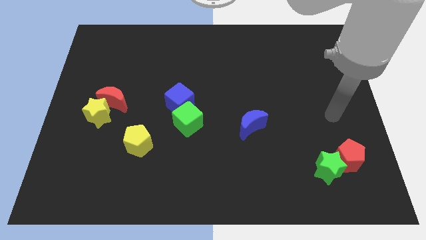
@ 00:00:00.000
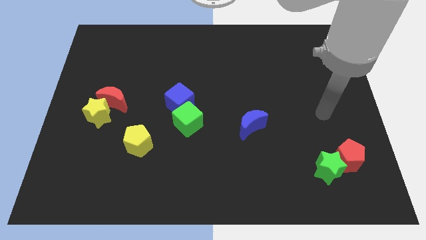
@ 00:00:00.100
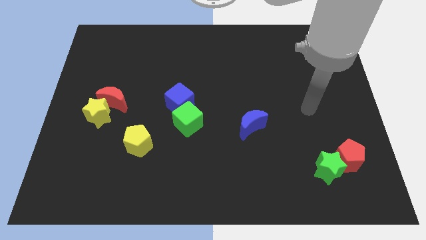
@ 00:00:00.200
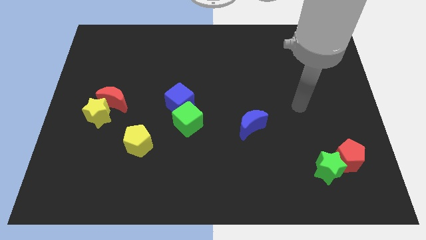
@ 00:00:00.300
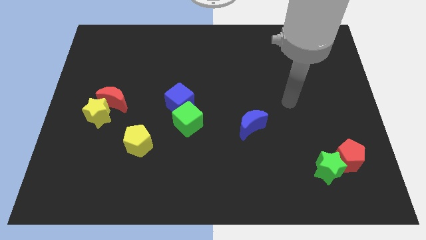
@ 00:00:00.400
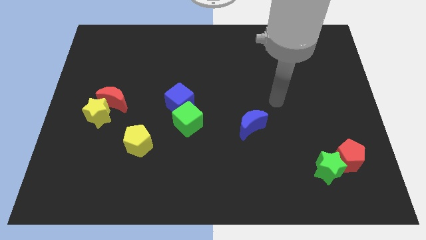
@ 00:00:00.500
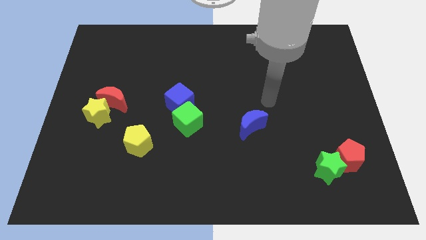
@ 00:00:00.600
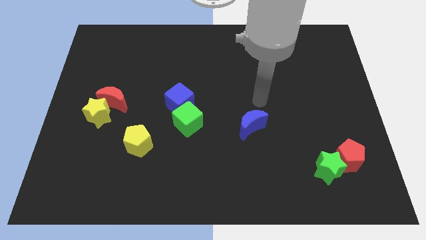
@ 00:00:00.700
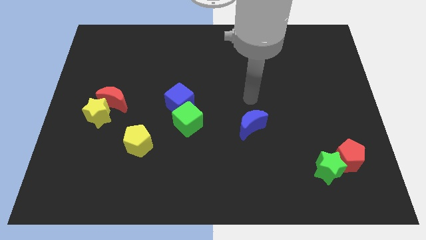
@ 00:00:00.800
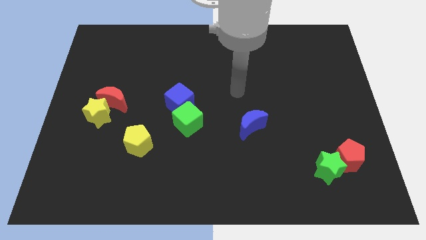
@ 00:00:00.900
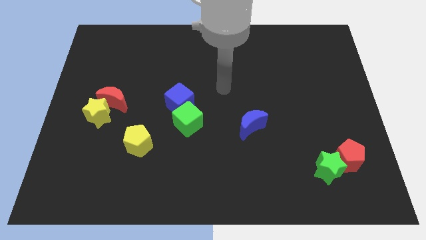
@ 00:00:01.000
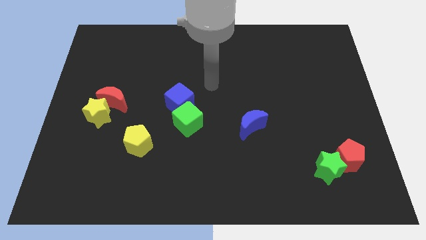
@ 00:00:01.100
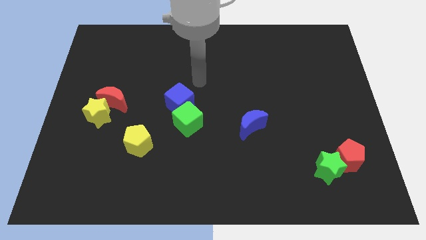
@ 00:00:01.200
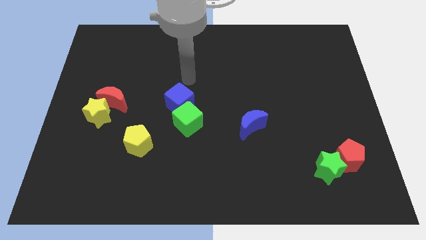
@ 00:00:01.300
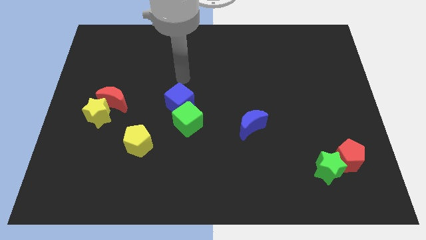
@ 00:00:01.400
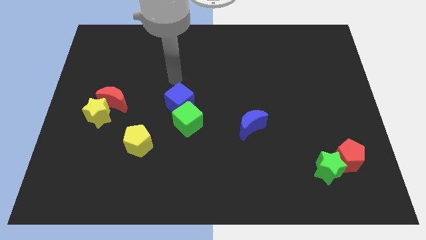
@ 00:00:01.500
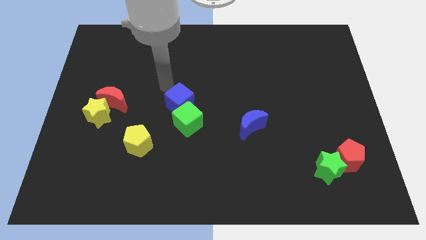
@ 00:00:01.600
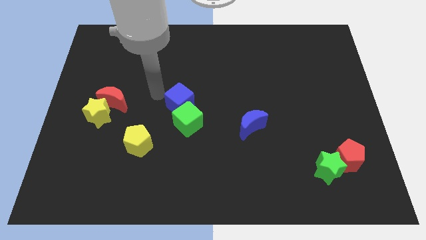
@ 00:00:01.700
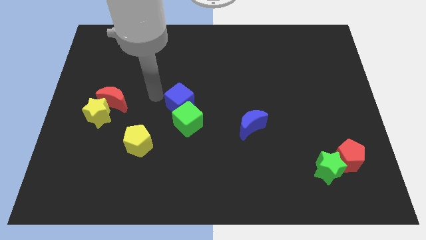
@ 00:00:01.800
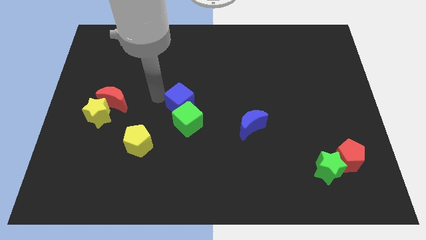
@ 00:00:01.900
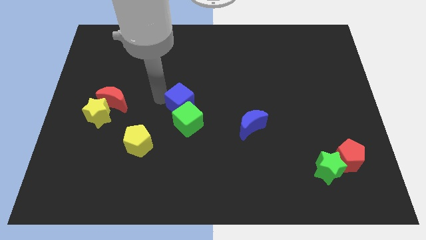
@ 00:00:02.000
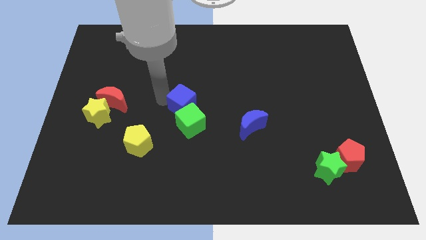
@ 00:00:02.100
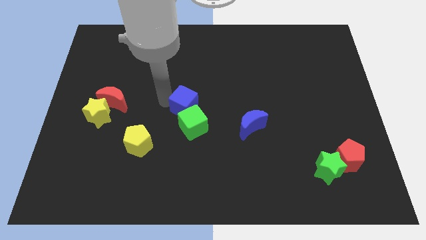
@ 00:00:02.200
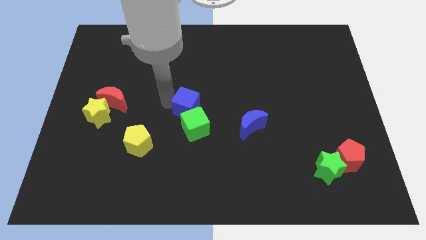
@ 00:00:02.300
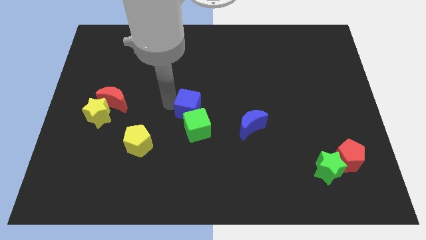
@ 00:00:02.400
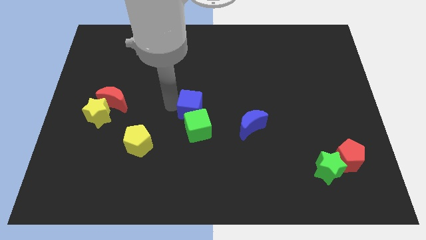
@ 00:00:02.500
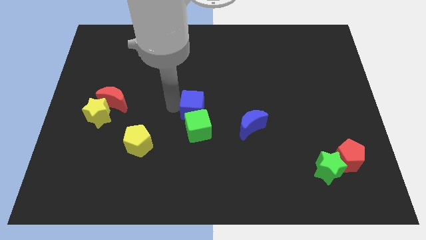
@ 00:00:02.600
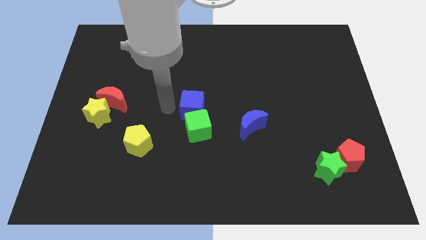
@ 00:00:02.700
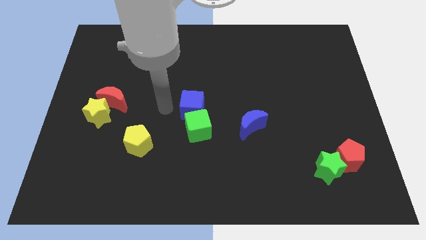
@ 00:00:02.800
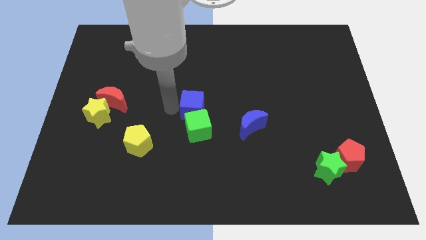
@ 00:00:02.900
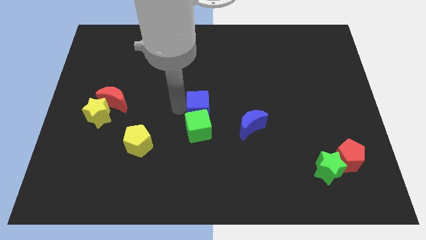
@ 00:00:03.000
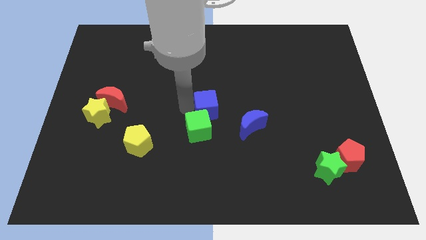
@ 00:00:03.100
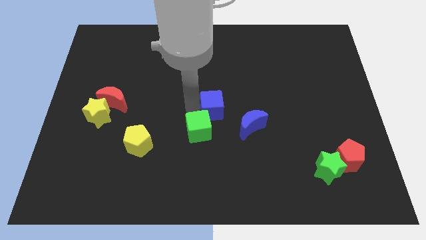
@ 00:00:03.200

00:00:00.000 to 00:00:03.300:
slightly push the blue cube right

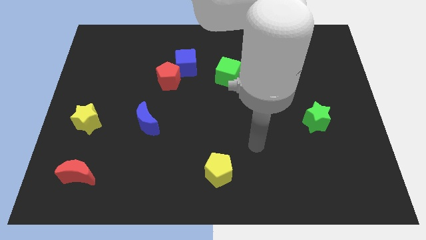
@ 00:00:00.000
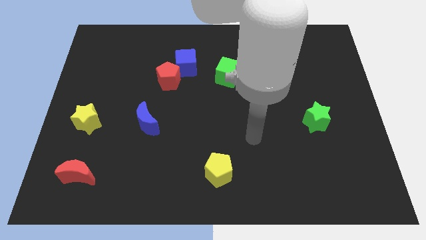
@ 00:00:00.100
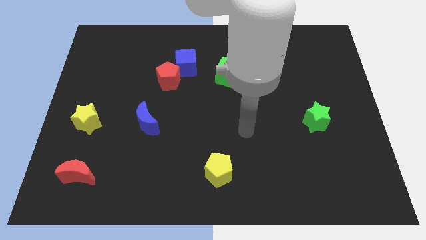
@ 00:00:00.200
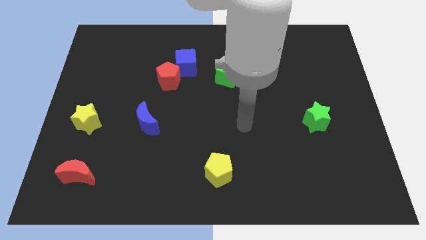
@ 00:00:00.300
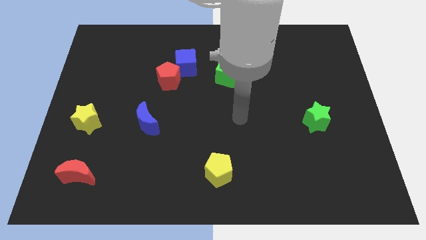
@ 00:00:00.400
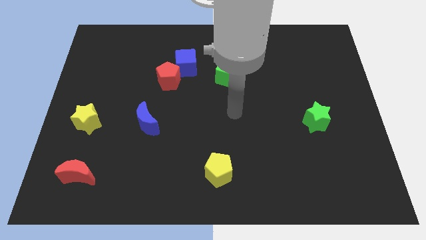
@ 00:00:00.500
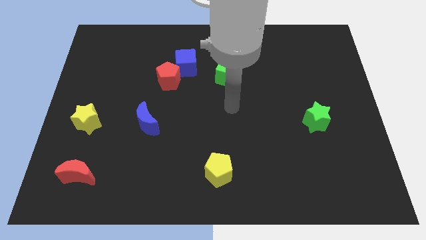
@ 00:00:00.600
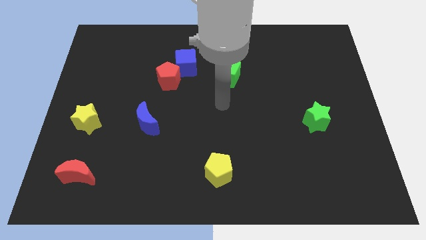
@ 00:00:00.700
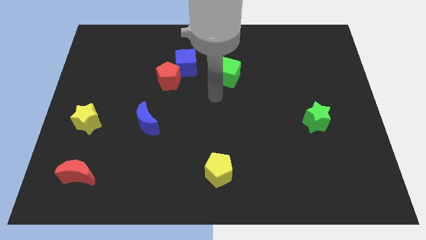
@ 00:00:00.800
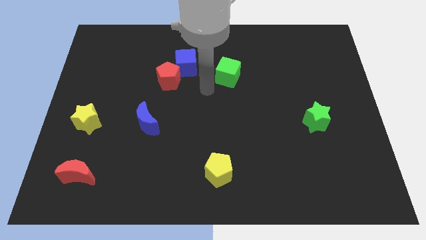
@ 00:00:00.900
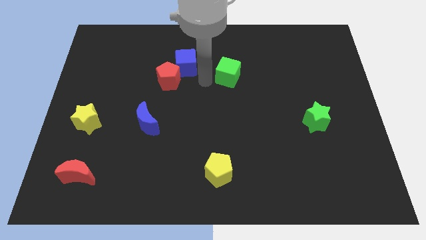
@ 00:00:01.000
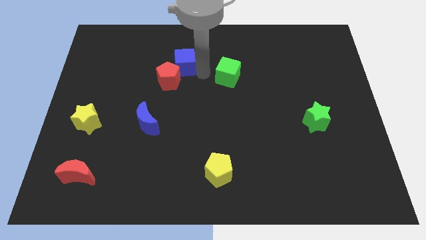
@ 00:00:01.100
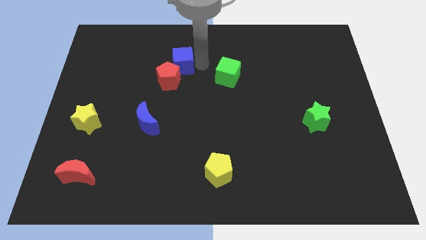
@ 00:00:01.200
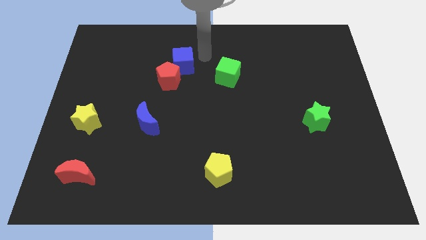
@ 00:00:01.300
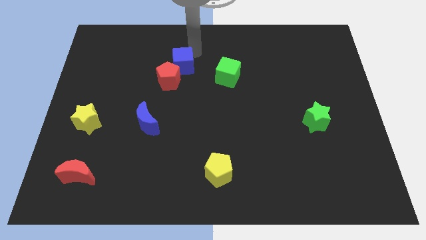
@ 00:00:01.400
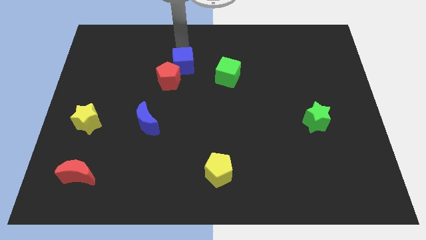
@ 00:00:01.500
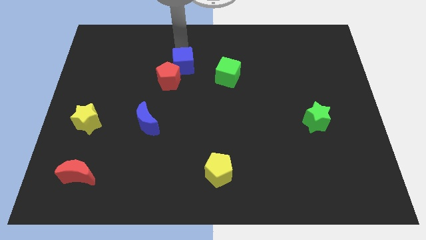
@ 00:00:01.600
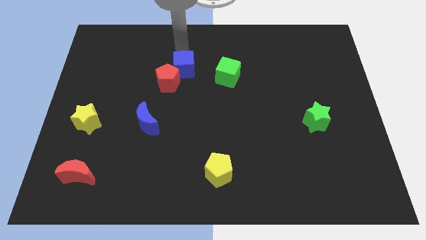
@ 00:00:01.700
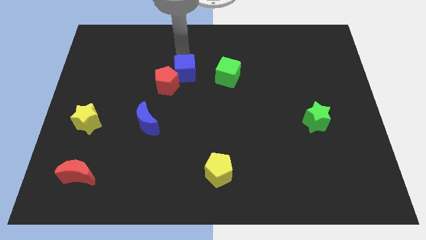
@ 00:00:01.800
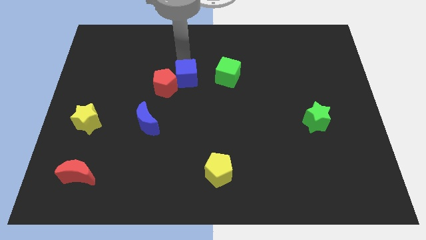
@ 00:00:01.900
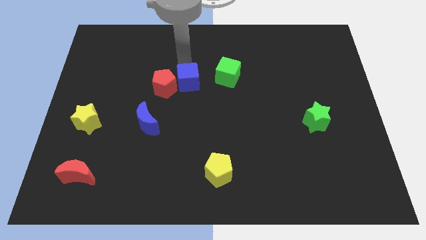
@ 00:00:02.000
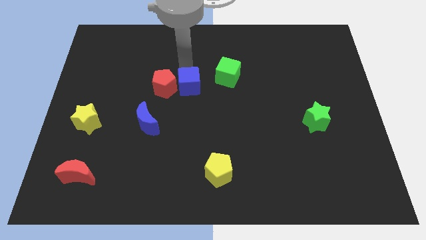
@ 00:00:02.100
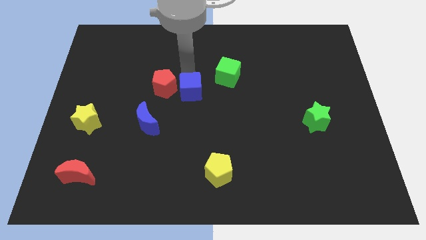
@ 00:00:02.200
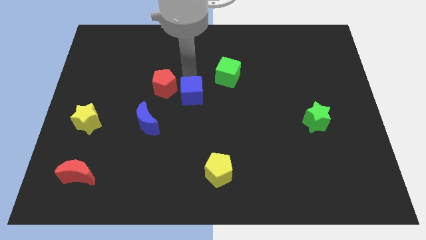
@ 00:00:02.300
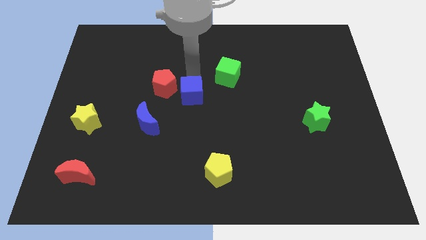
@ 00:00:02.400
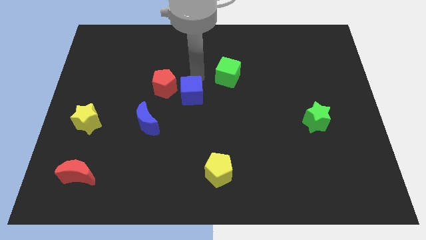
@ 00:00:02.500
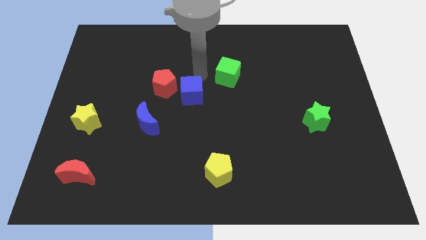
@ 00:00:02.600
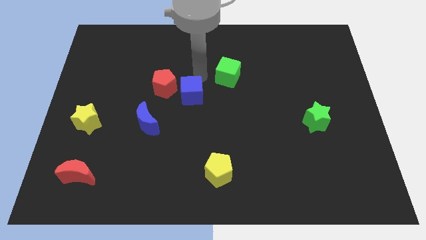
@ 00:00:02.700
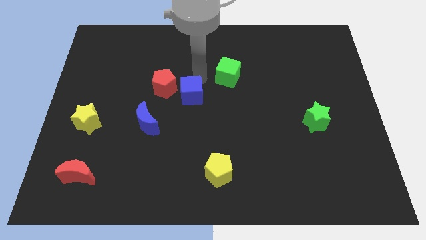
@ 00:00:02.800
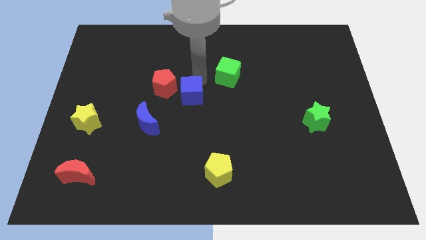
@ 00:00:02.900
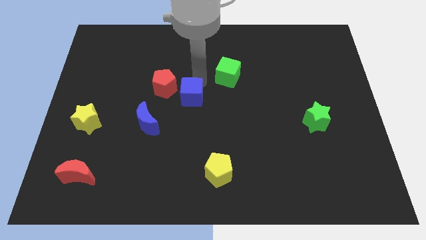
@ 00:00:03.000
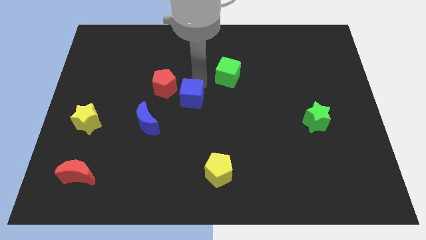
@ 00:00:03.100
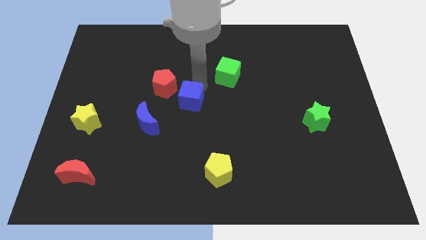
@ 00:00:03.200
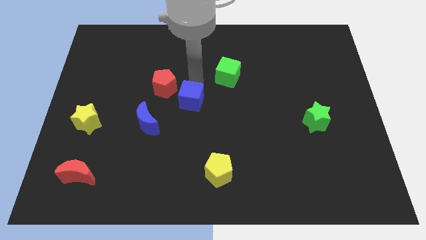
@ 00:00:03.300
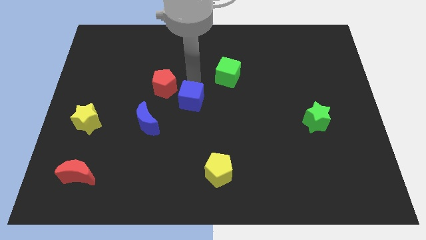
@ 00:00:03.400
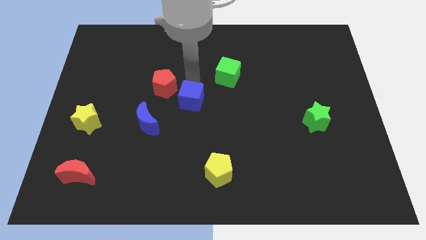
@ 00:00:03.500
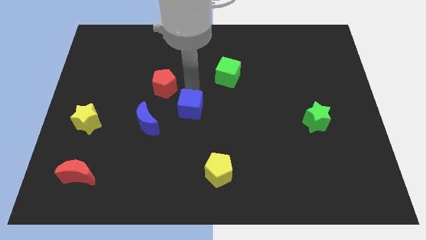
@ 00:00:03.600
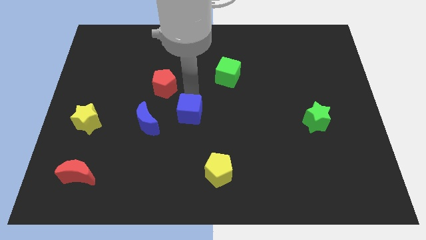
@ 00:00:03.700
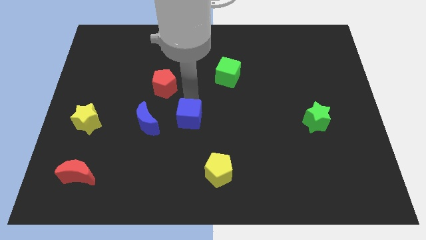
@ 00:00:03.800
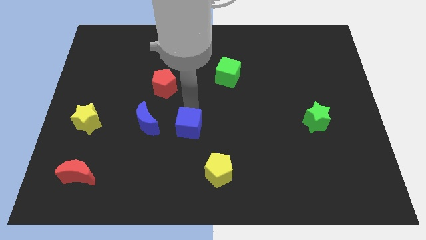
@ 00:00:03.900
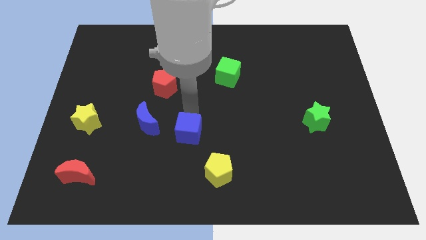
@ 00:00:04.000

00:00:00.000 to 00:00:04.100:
move the blue cube downwards
